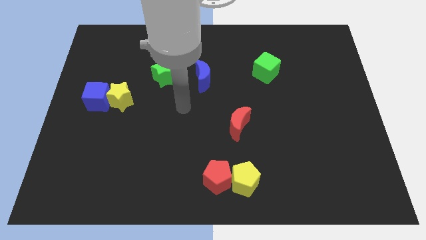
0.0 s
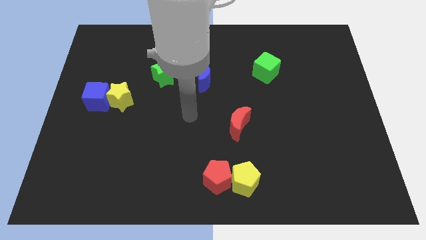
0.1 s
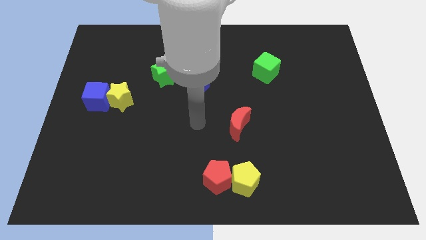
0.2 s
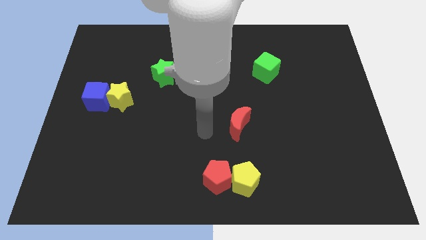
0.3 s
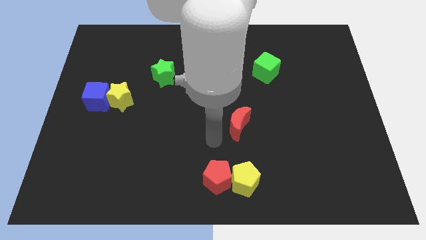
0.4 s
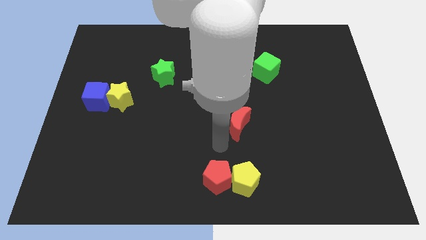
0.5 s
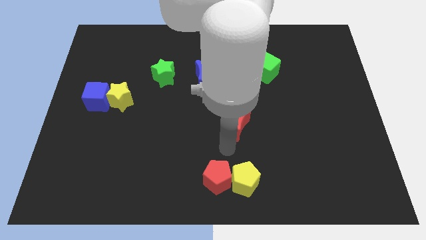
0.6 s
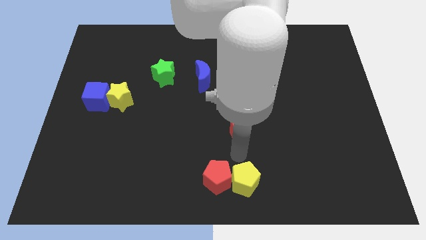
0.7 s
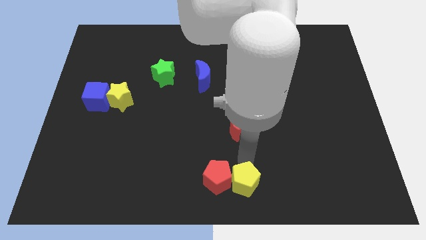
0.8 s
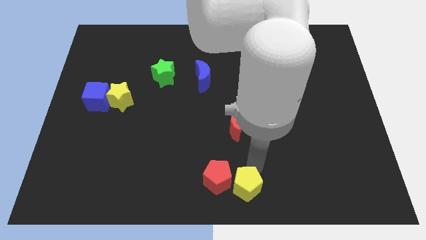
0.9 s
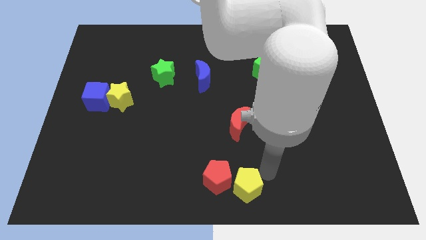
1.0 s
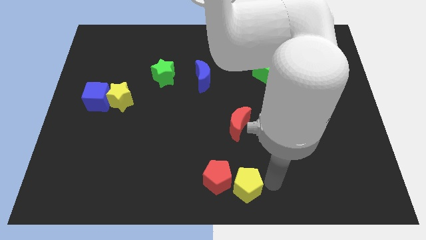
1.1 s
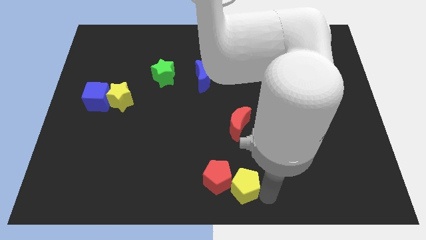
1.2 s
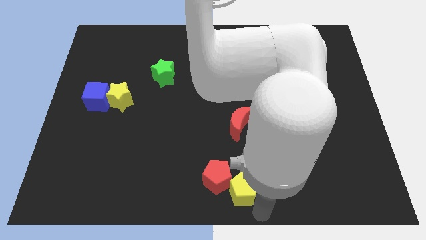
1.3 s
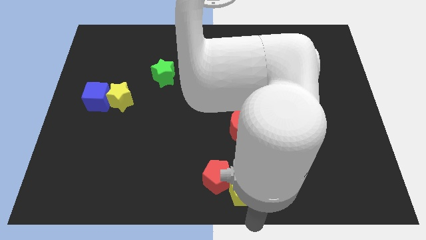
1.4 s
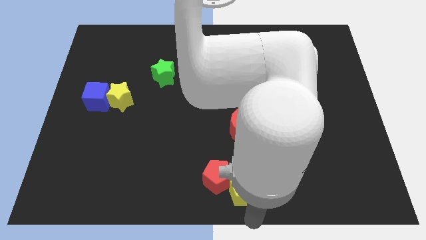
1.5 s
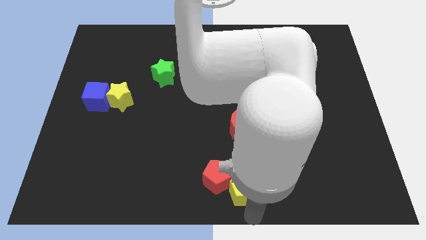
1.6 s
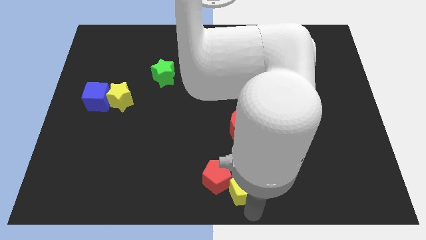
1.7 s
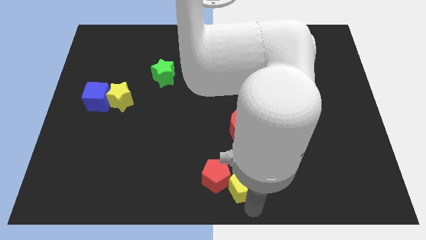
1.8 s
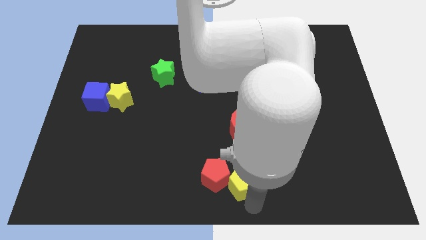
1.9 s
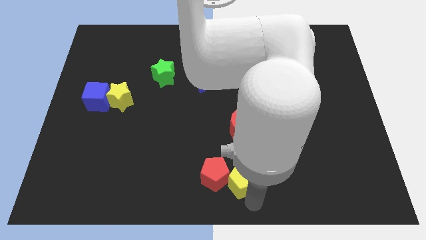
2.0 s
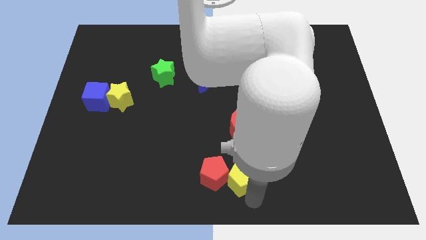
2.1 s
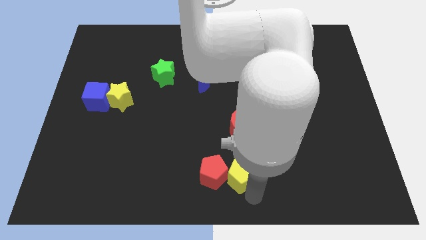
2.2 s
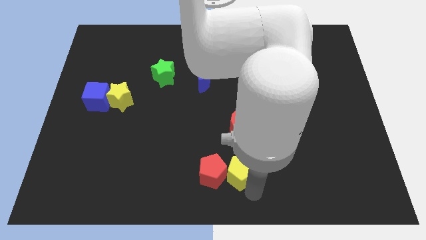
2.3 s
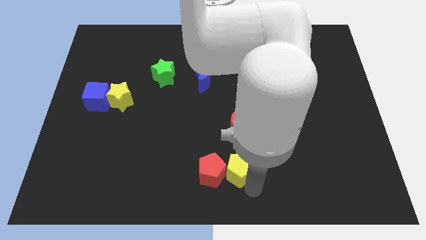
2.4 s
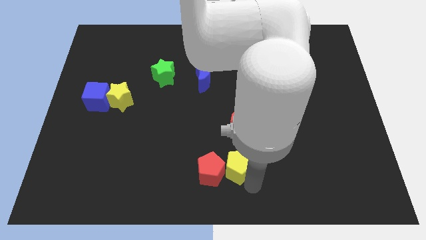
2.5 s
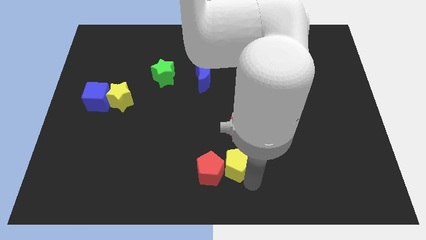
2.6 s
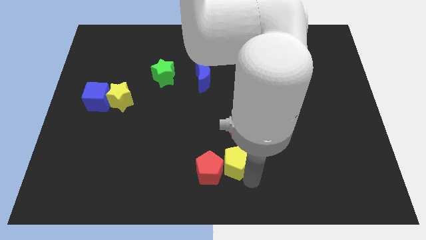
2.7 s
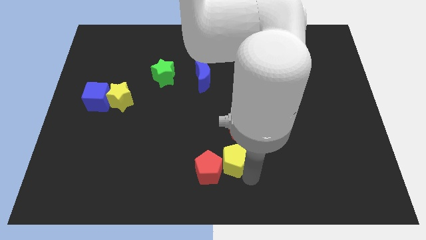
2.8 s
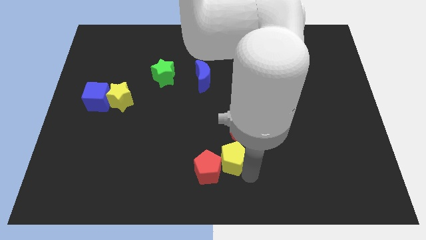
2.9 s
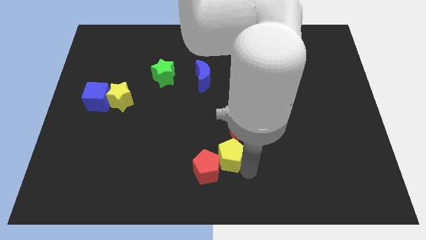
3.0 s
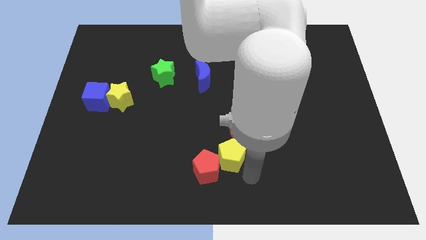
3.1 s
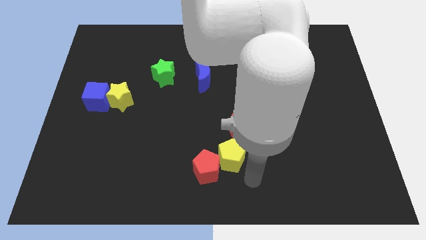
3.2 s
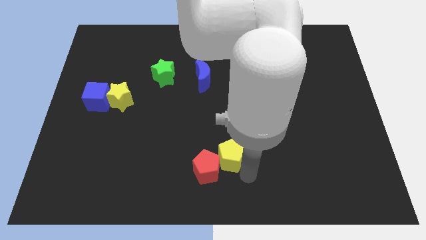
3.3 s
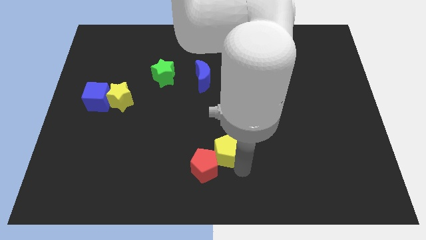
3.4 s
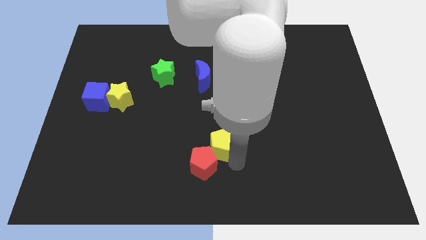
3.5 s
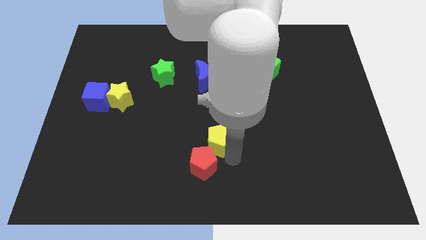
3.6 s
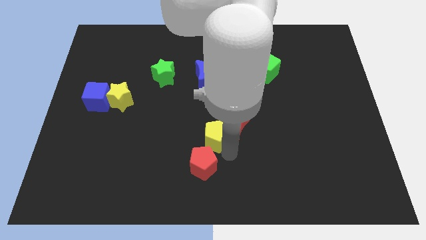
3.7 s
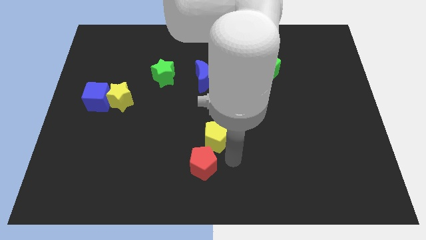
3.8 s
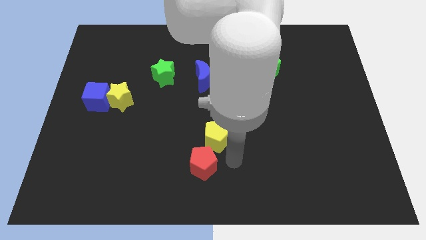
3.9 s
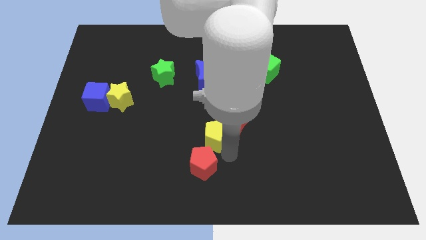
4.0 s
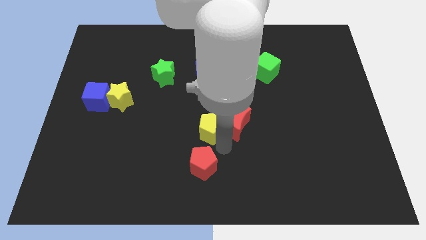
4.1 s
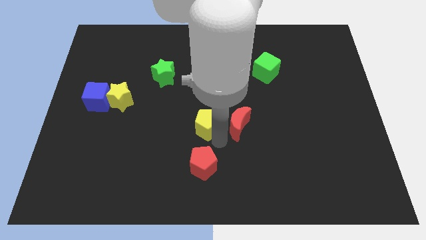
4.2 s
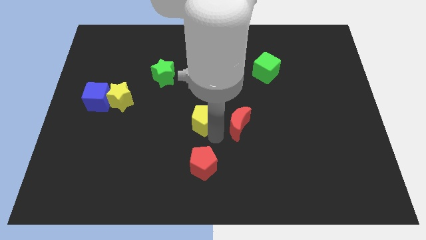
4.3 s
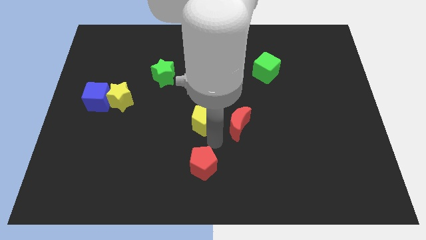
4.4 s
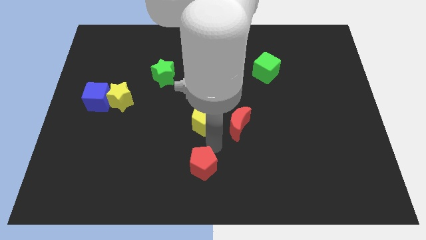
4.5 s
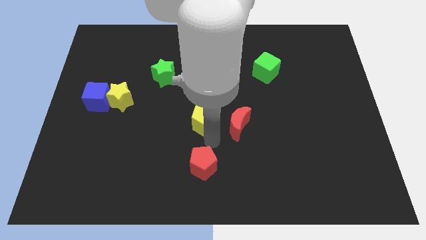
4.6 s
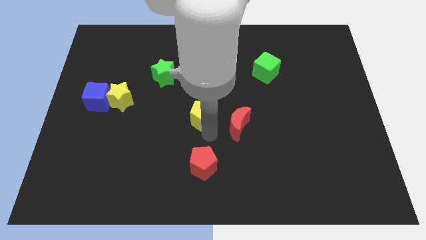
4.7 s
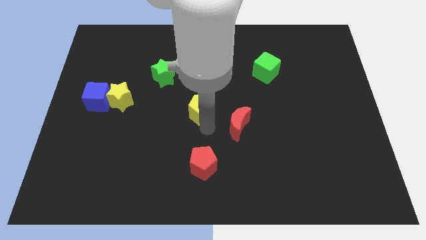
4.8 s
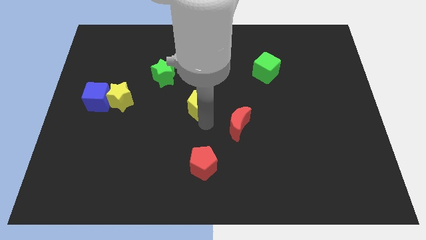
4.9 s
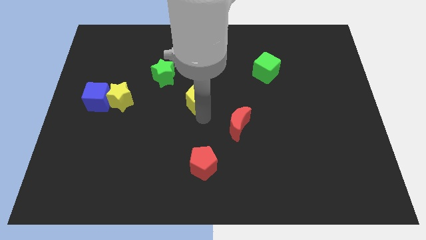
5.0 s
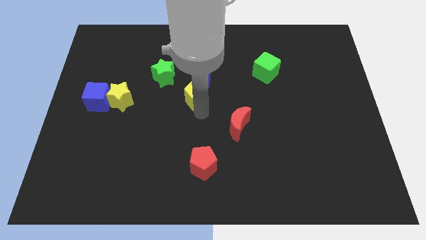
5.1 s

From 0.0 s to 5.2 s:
slide the yellow pentagon to the blue moon

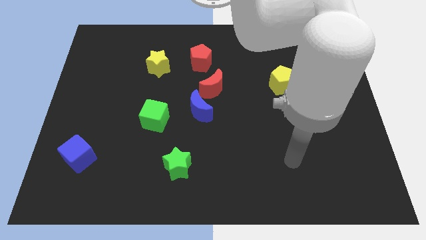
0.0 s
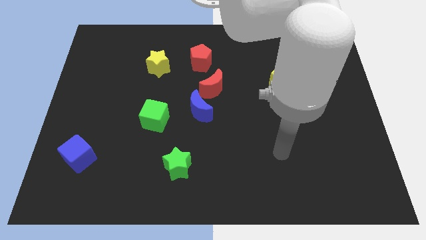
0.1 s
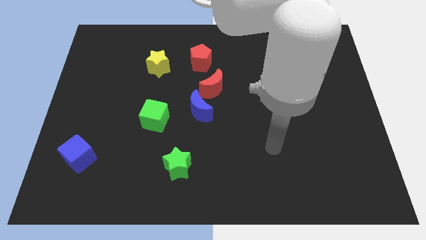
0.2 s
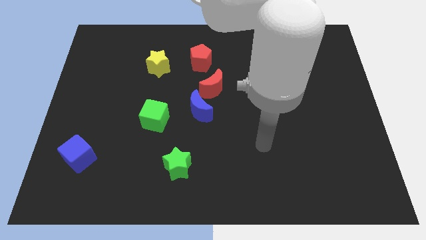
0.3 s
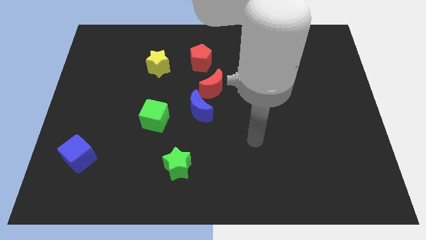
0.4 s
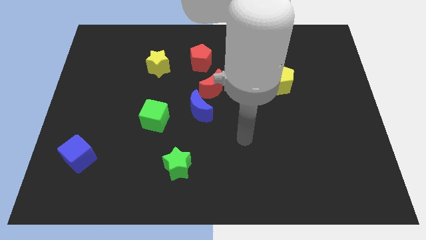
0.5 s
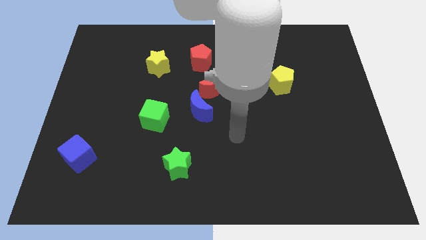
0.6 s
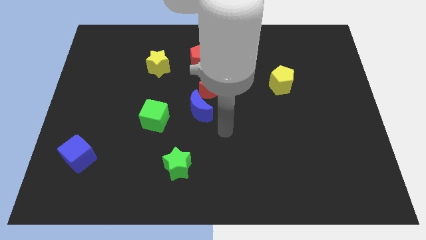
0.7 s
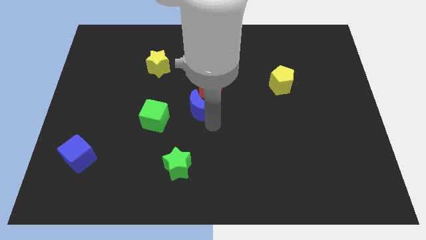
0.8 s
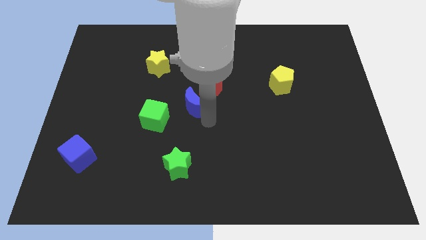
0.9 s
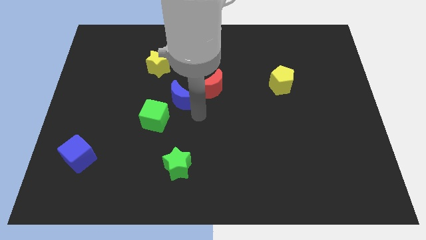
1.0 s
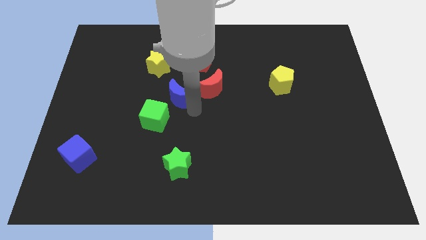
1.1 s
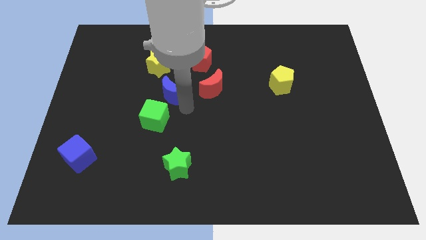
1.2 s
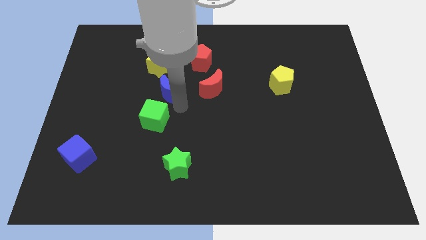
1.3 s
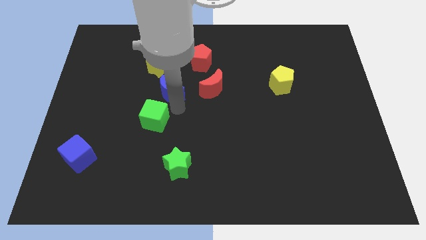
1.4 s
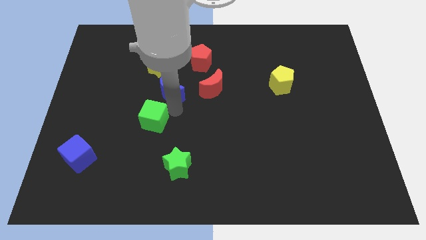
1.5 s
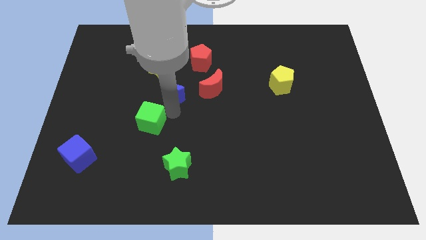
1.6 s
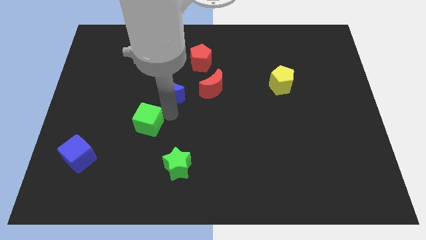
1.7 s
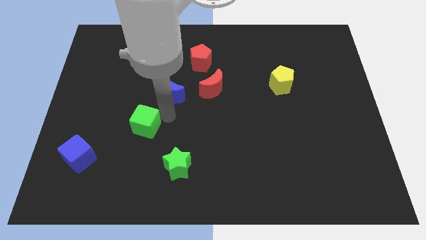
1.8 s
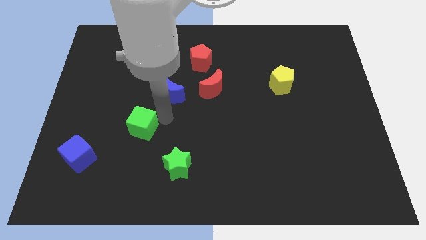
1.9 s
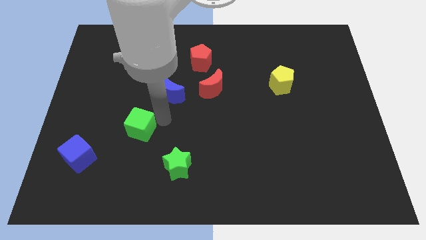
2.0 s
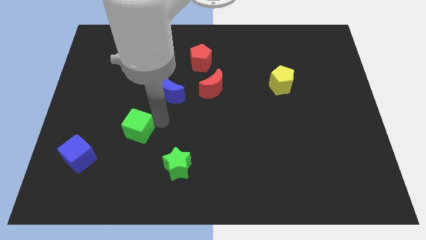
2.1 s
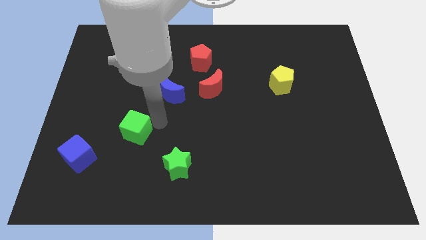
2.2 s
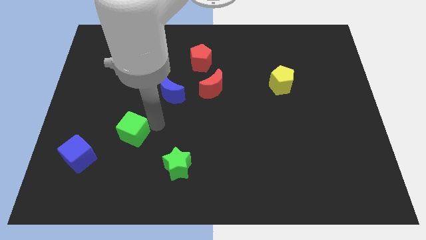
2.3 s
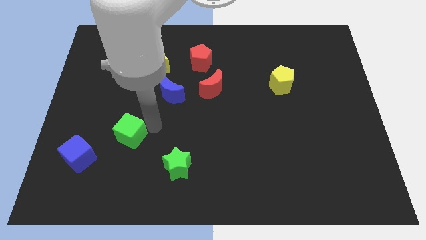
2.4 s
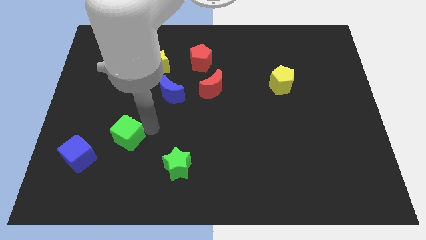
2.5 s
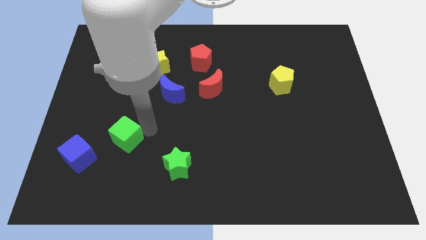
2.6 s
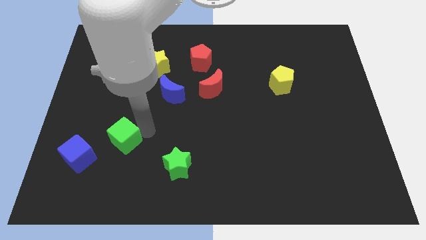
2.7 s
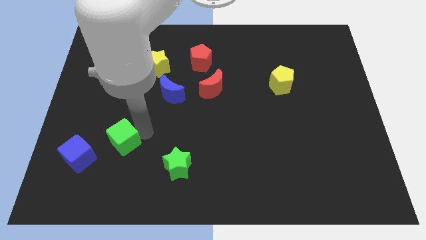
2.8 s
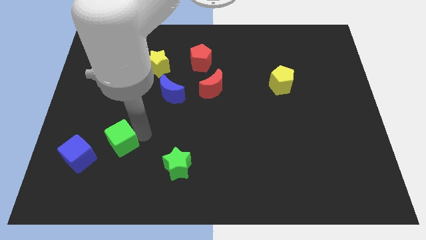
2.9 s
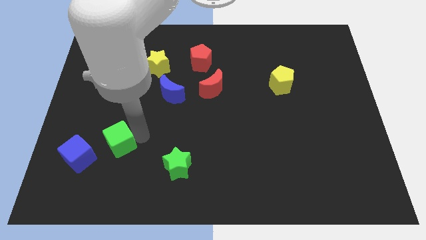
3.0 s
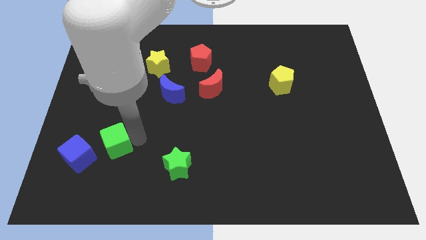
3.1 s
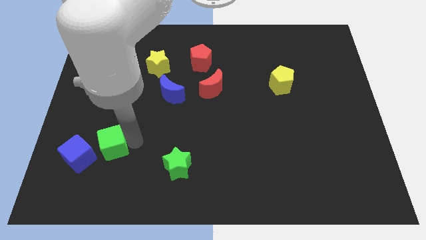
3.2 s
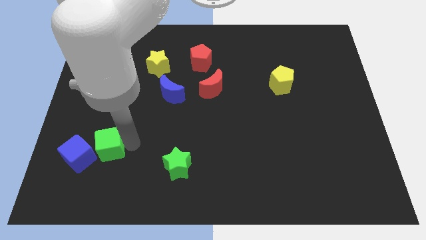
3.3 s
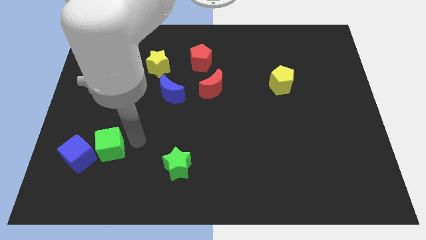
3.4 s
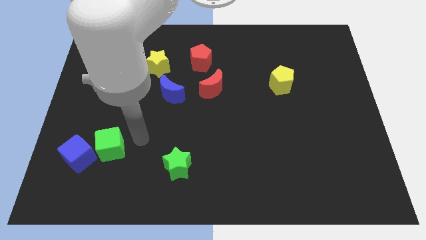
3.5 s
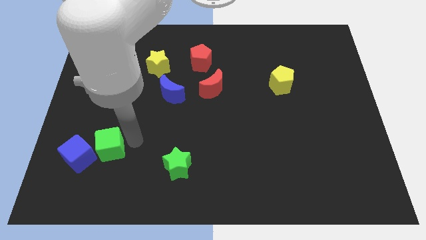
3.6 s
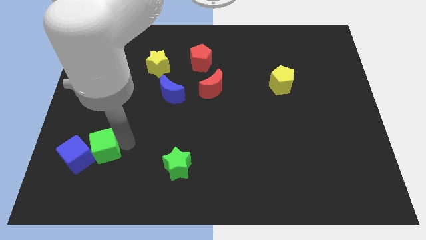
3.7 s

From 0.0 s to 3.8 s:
push the green cube to the blue cube
